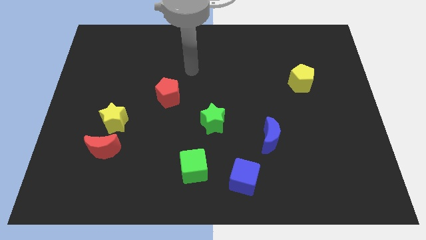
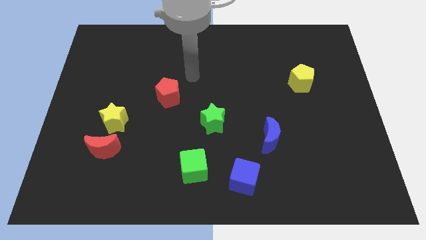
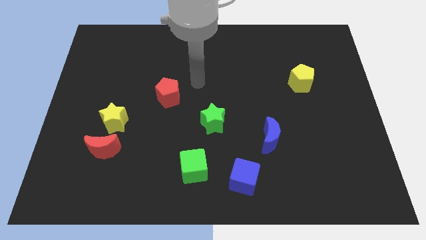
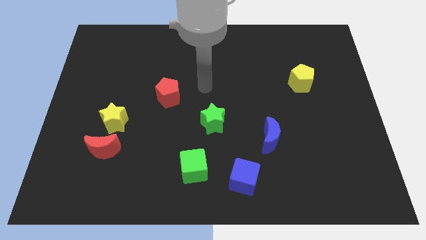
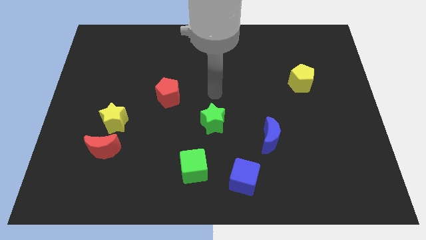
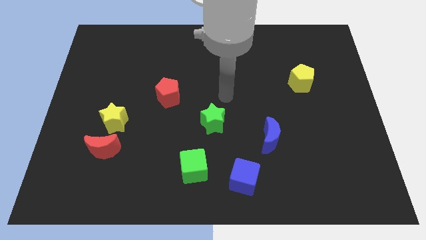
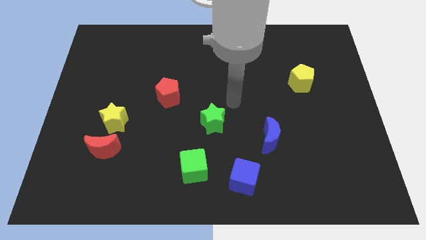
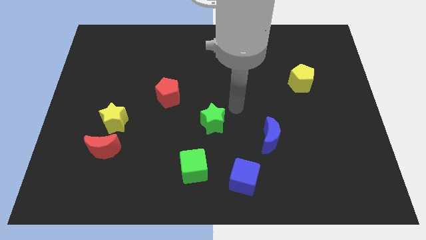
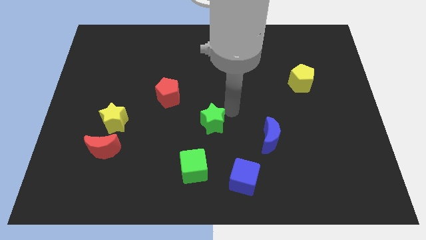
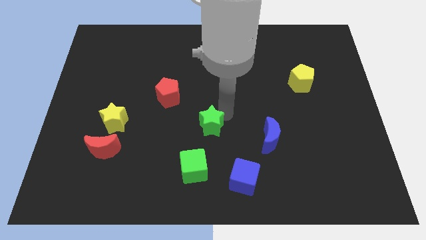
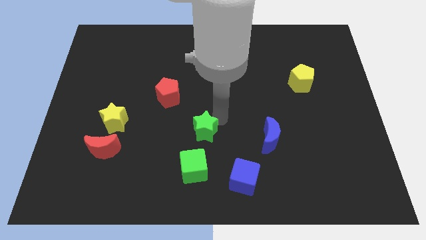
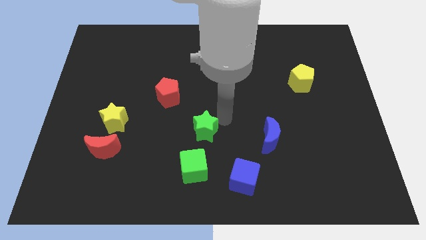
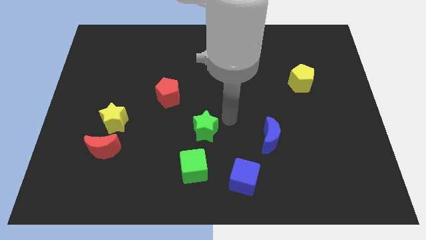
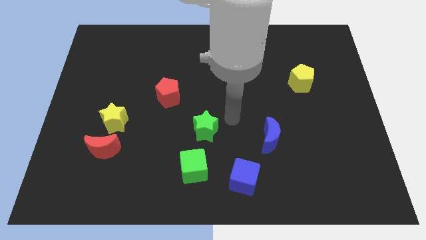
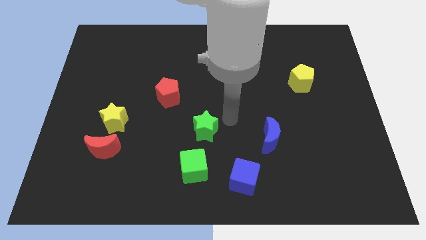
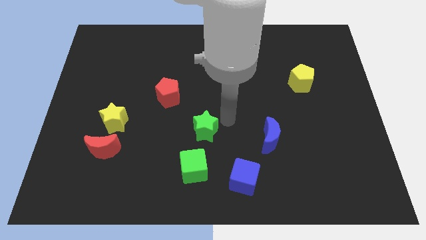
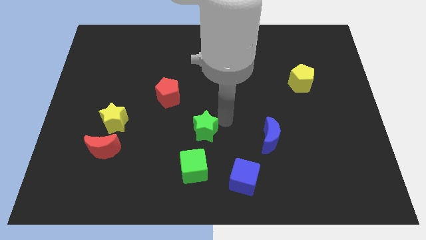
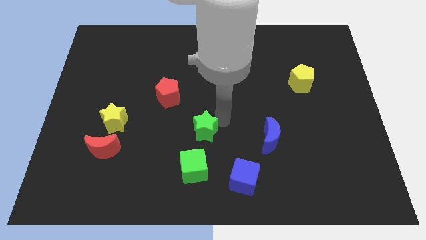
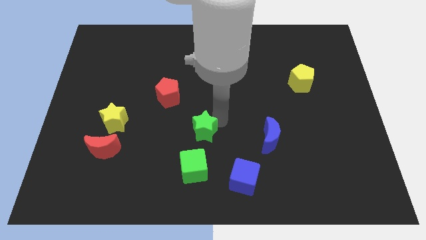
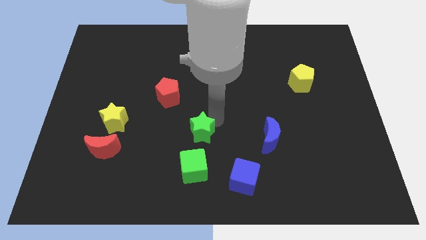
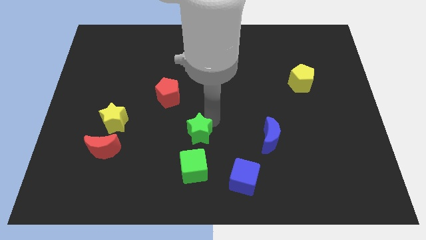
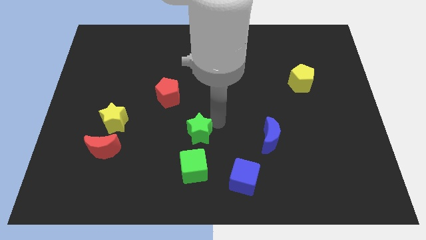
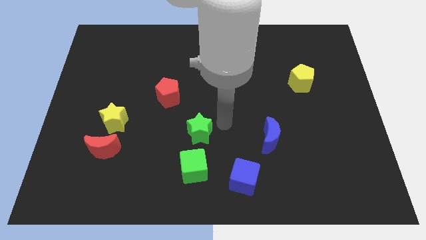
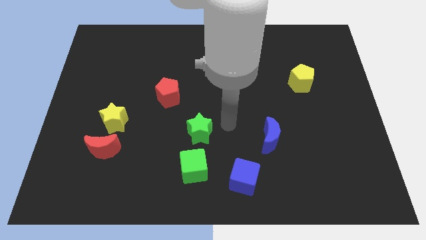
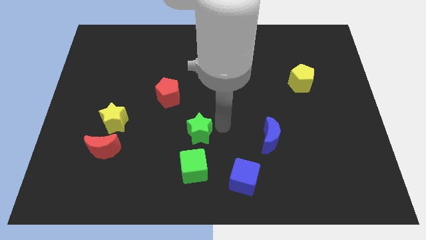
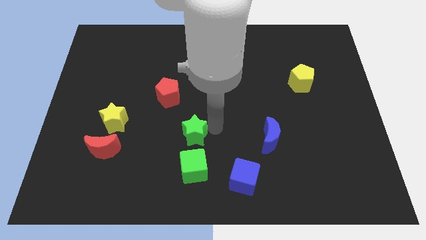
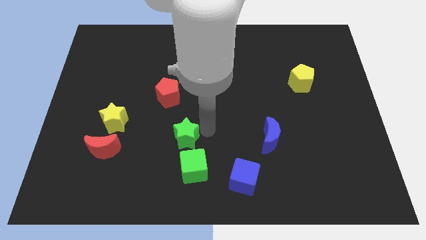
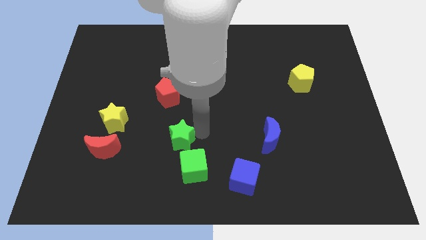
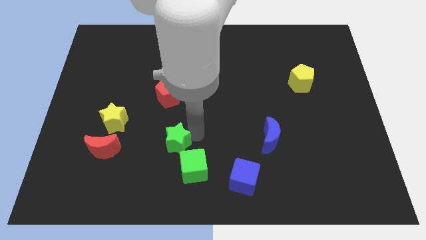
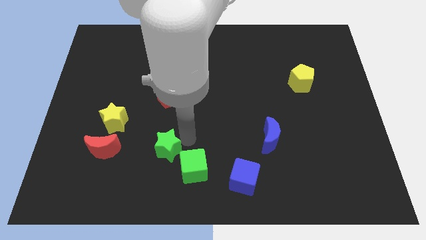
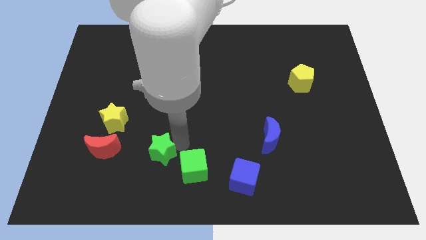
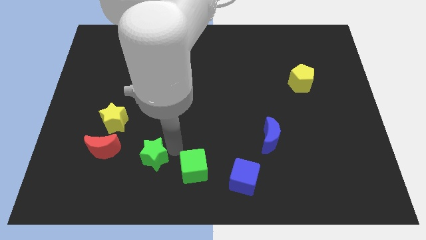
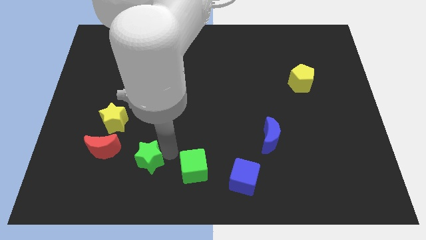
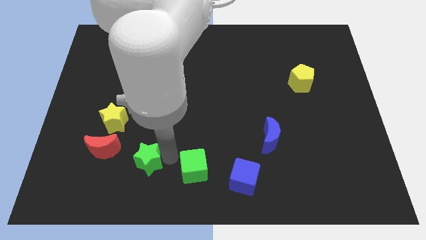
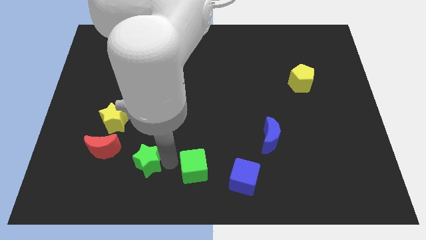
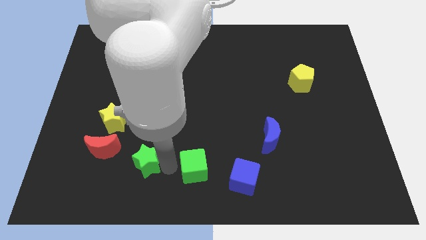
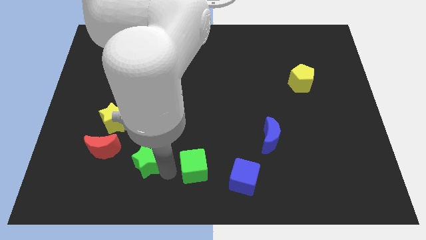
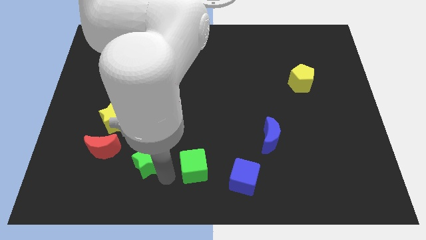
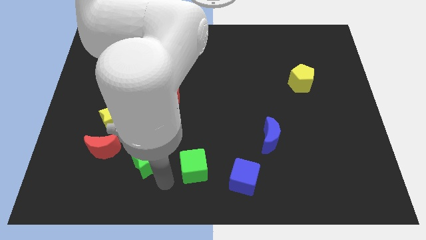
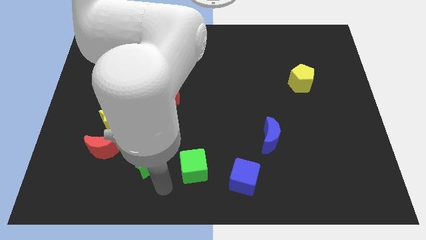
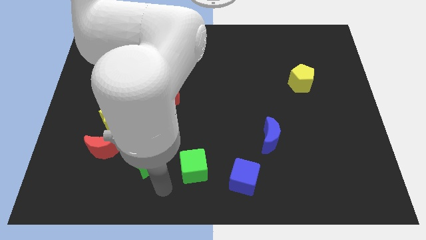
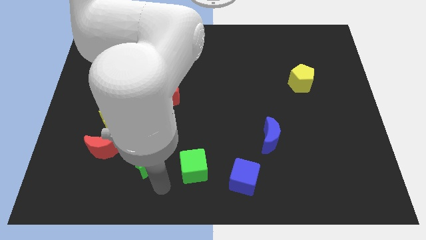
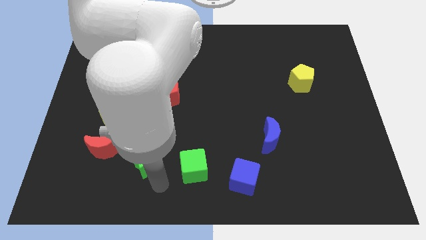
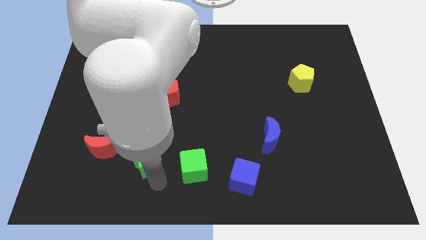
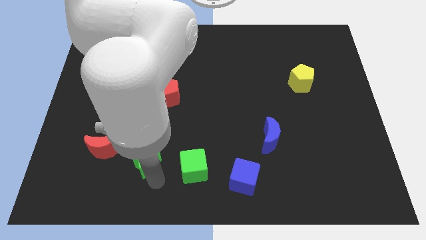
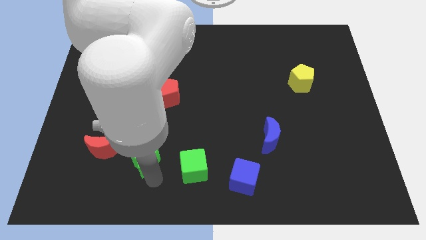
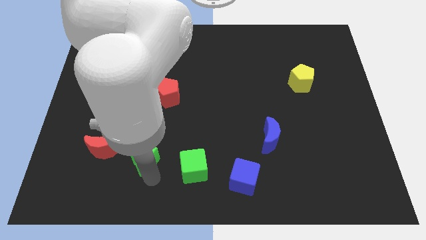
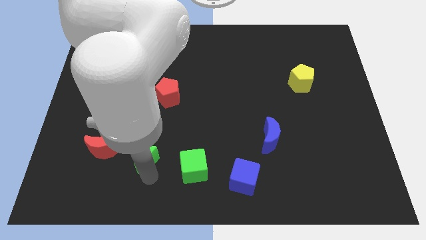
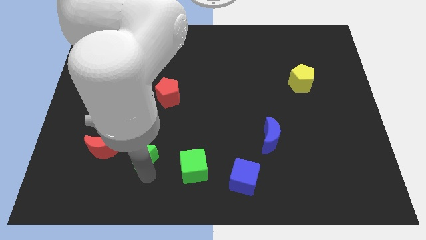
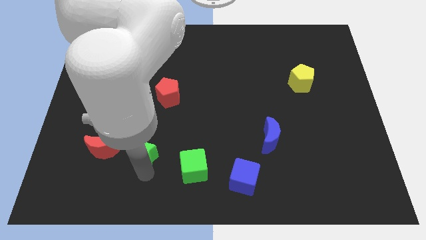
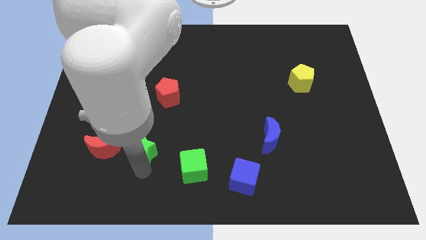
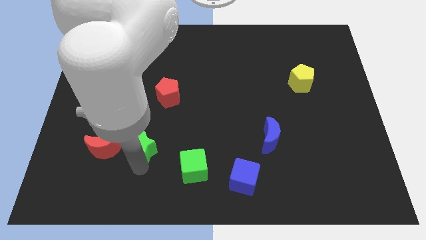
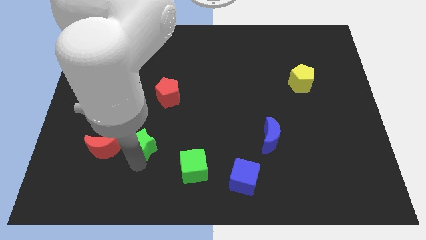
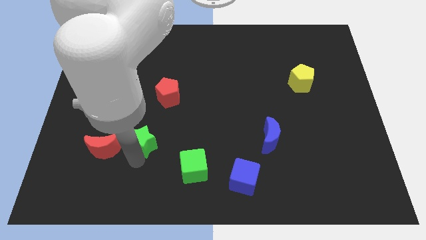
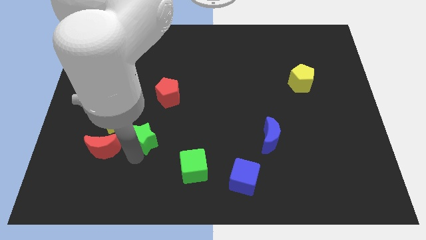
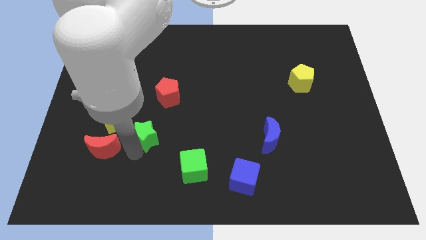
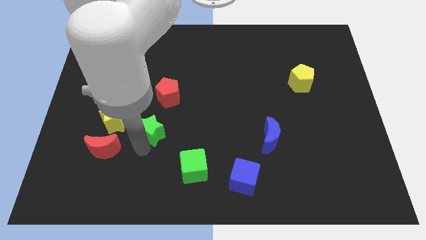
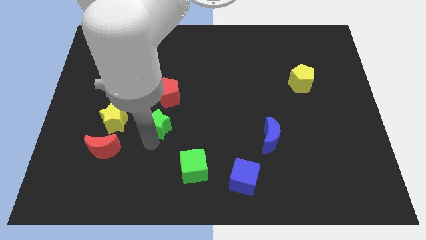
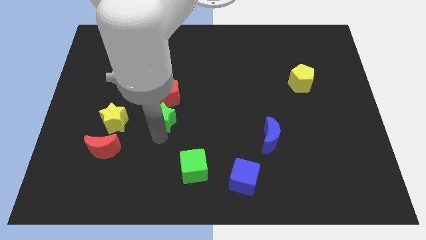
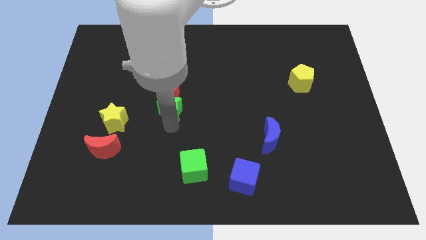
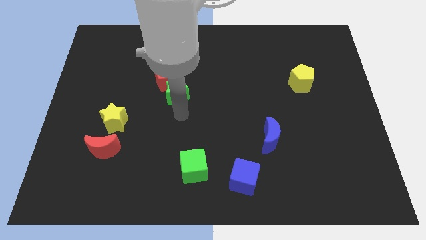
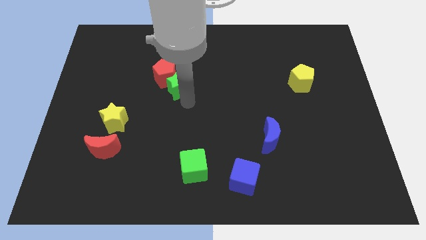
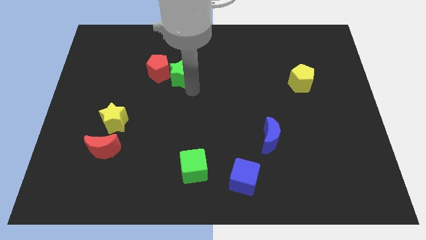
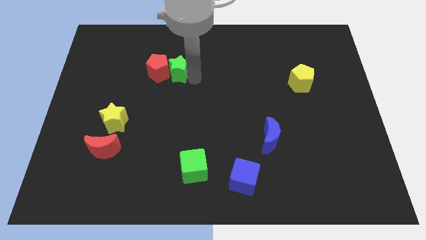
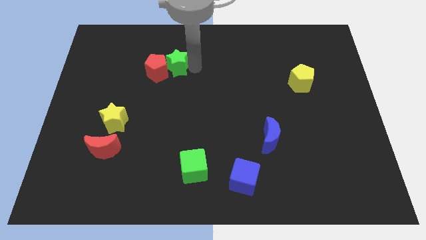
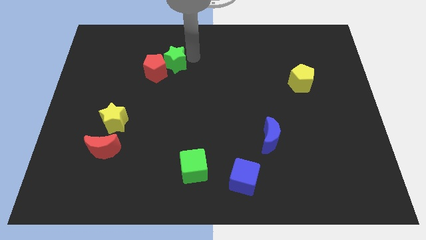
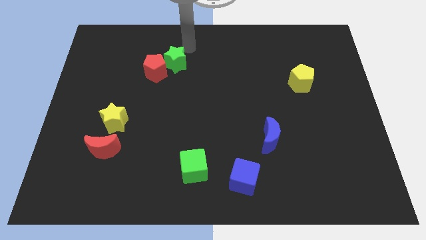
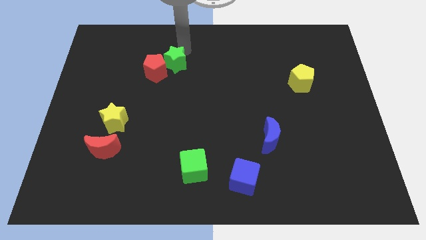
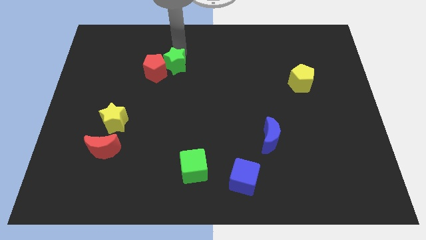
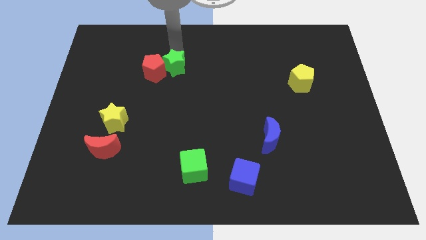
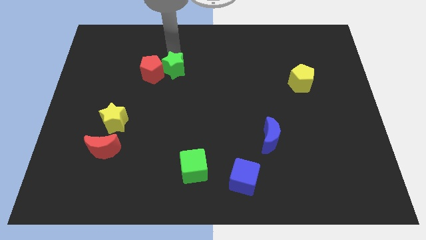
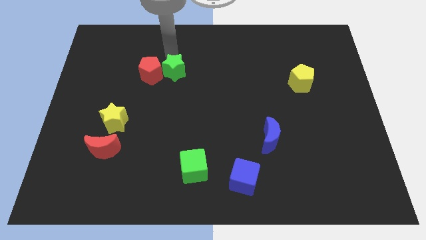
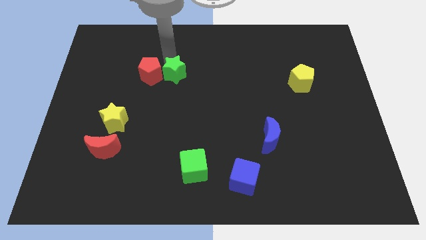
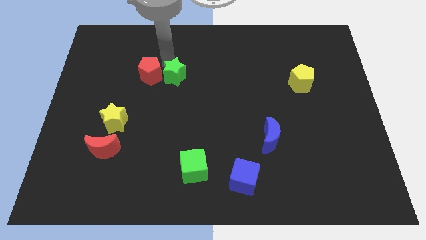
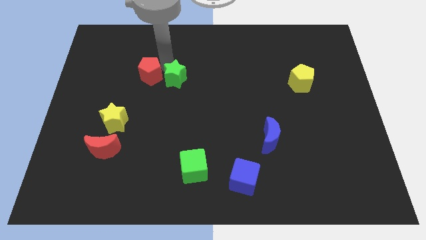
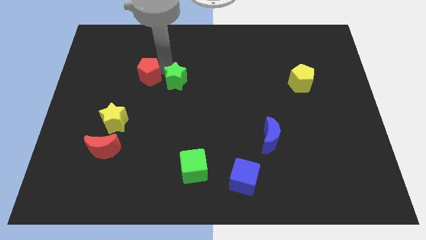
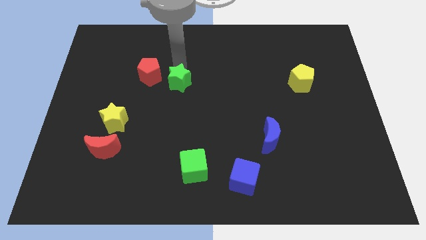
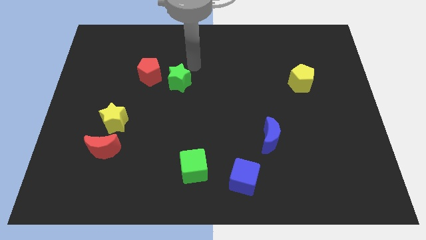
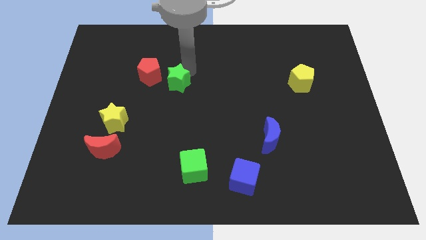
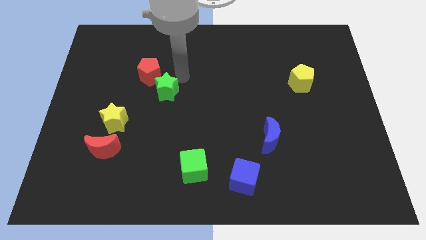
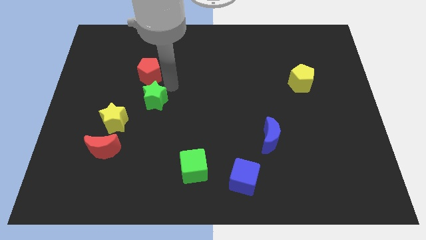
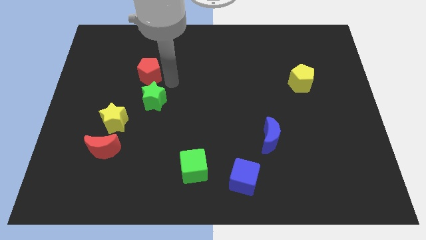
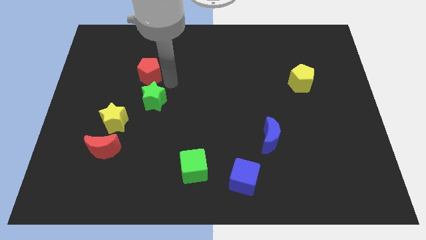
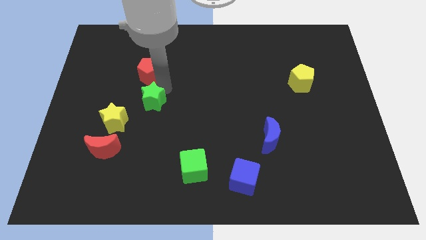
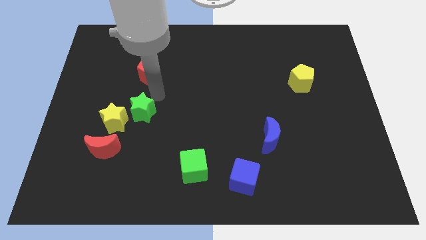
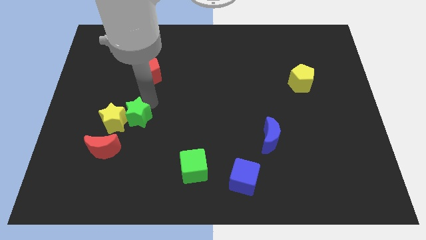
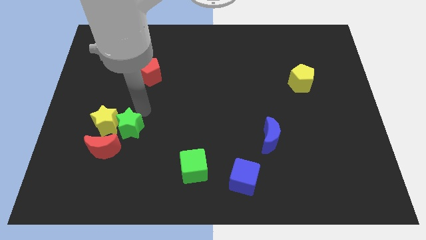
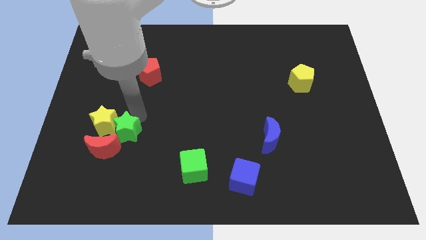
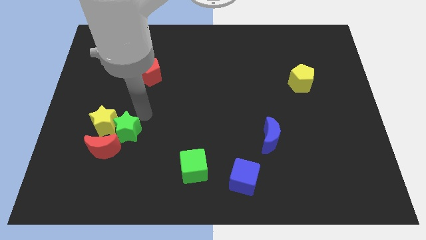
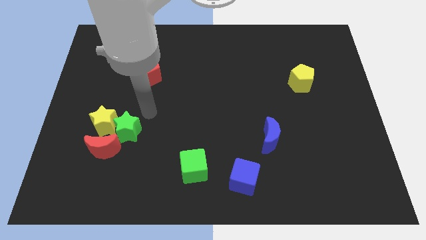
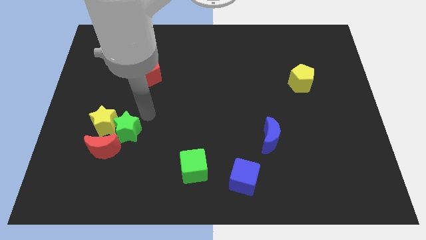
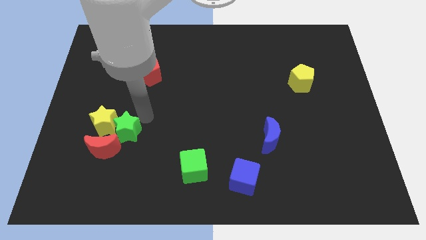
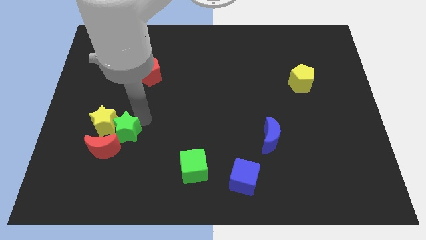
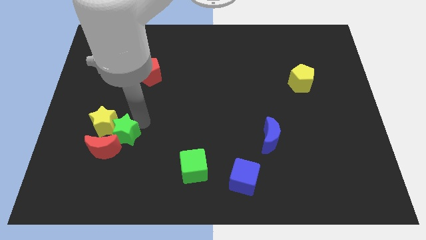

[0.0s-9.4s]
move the green star to the red moon
